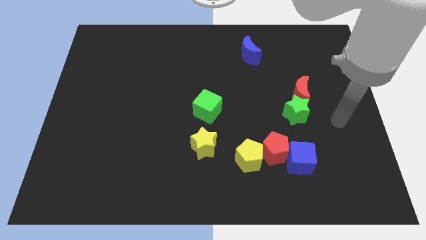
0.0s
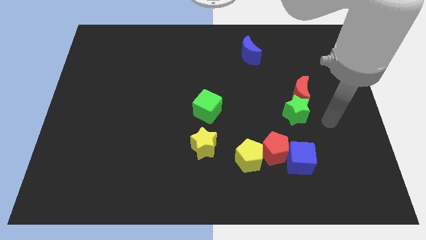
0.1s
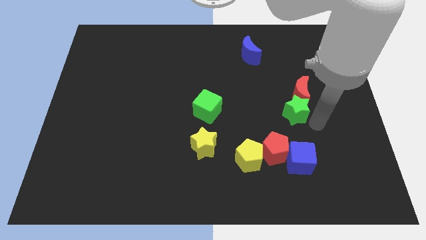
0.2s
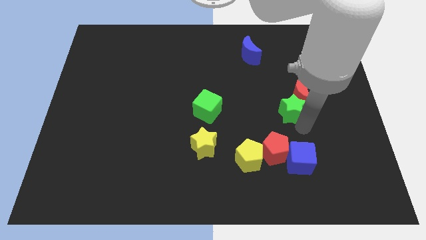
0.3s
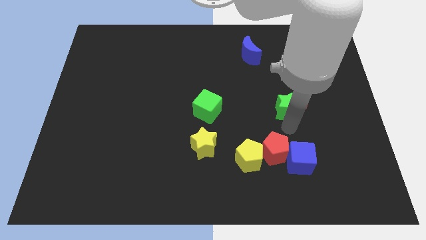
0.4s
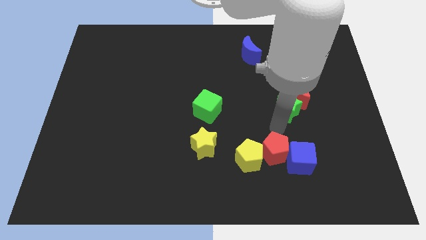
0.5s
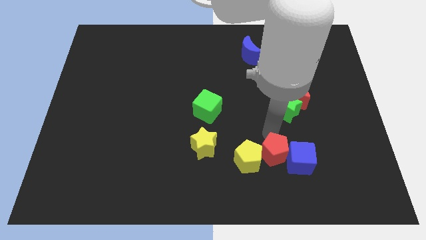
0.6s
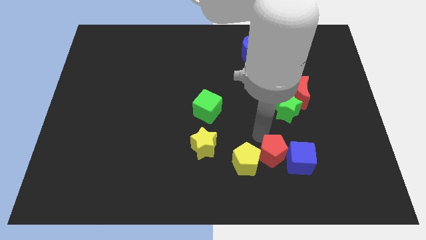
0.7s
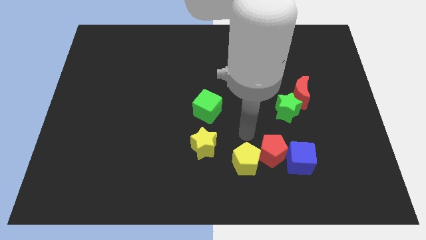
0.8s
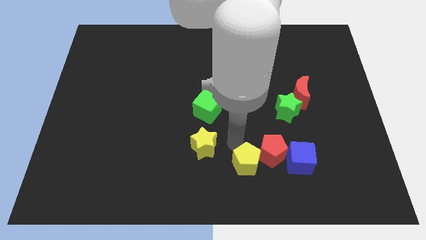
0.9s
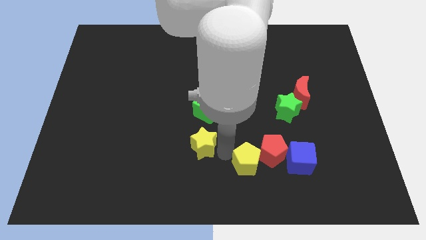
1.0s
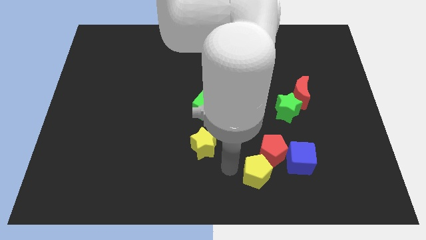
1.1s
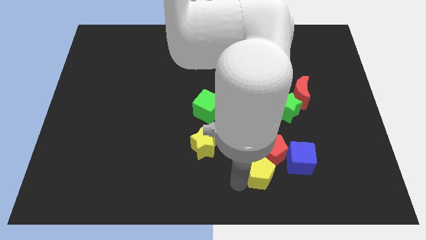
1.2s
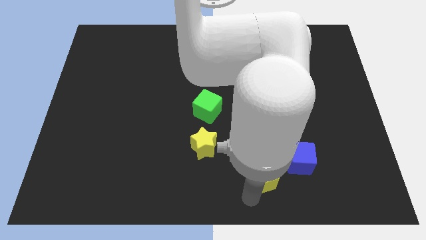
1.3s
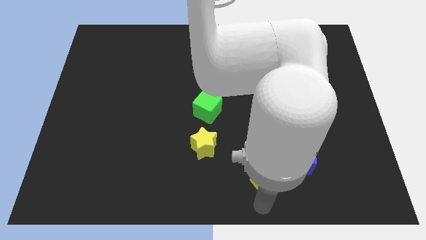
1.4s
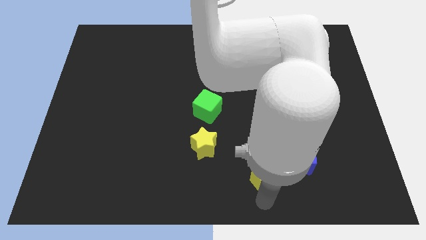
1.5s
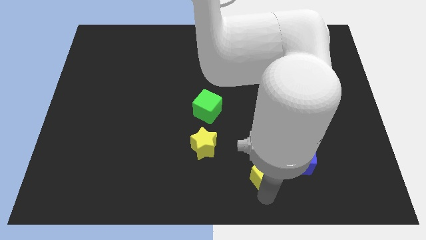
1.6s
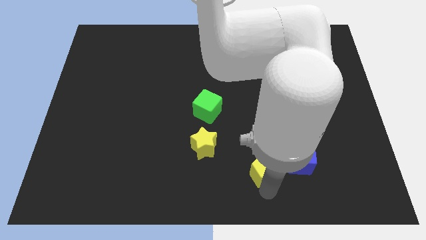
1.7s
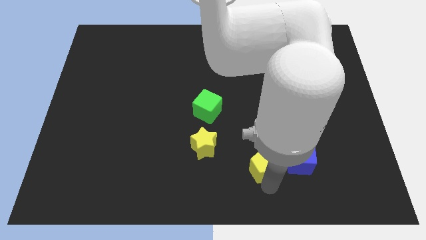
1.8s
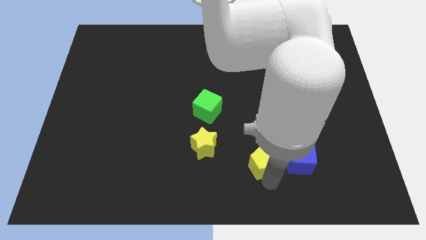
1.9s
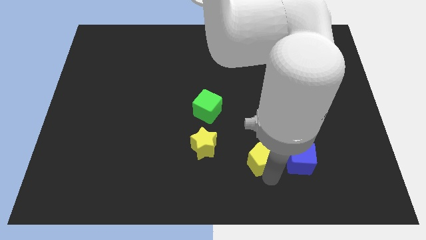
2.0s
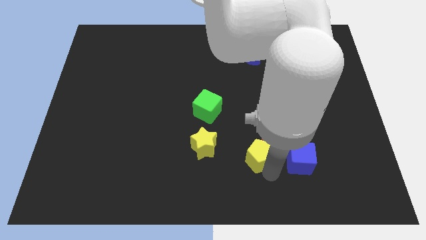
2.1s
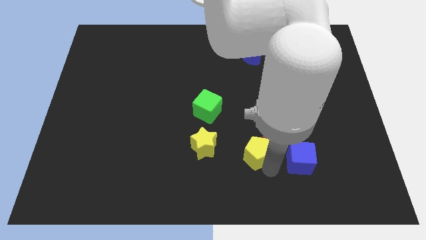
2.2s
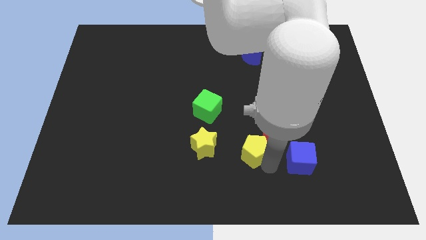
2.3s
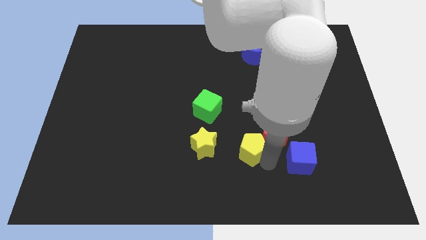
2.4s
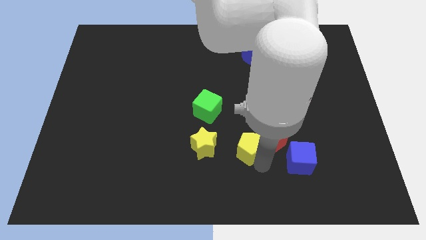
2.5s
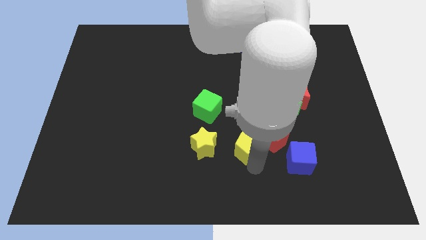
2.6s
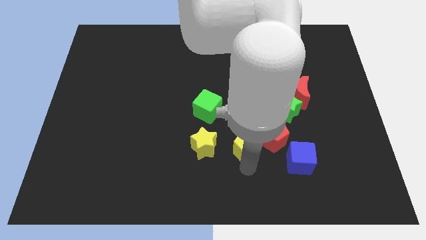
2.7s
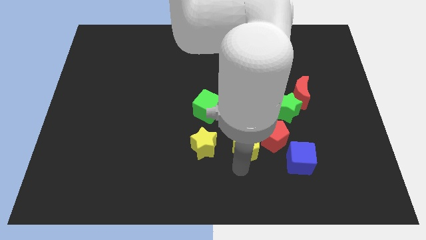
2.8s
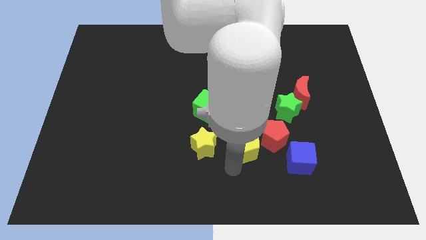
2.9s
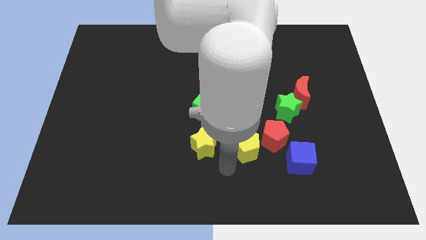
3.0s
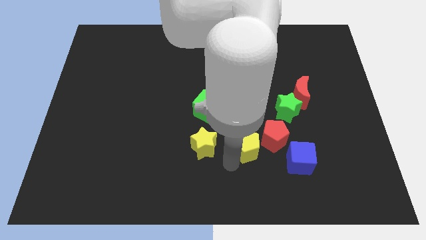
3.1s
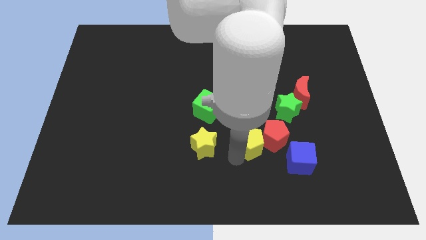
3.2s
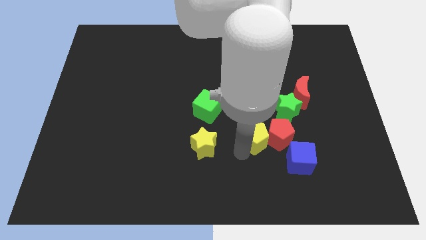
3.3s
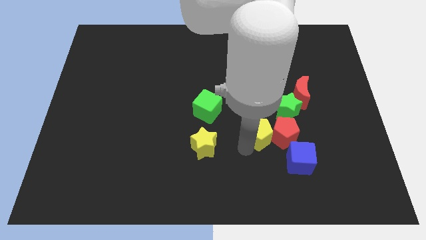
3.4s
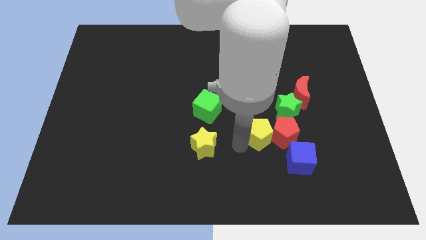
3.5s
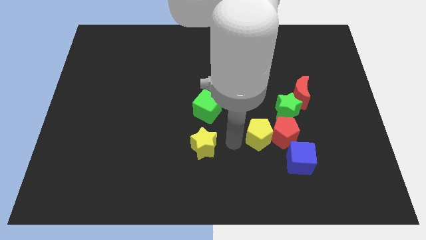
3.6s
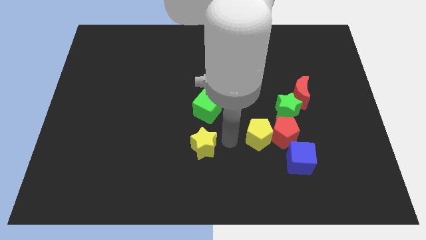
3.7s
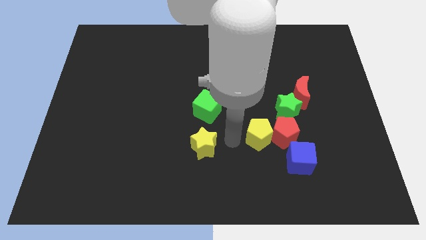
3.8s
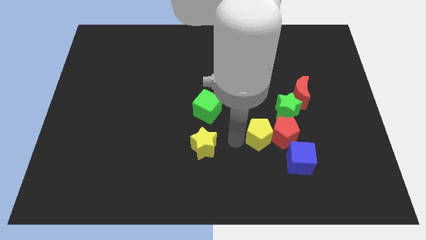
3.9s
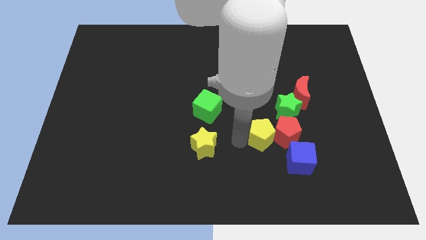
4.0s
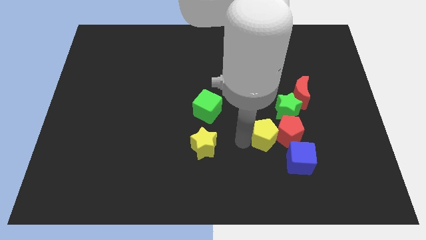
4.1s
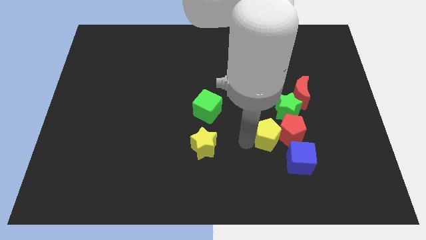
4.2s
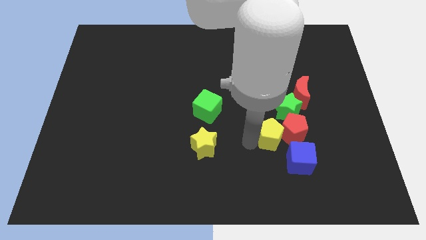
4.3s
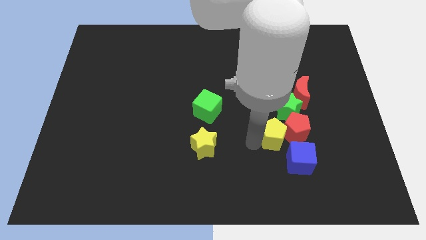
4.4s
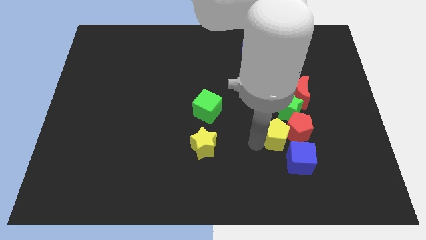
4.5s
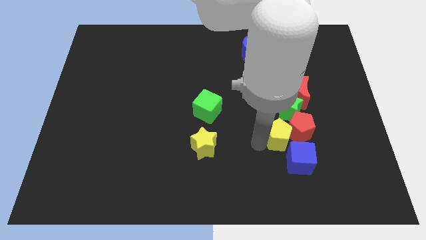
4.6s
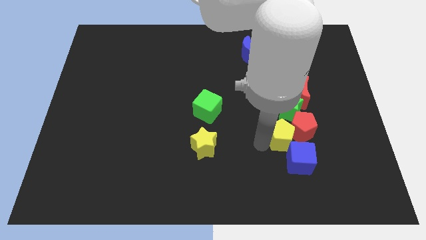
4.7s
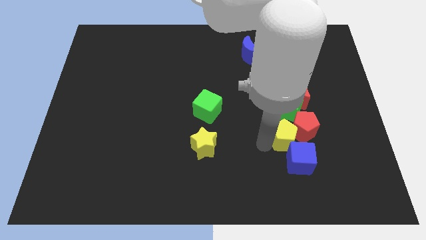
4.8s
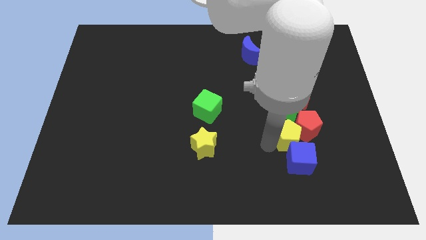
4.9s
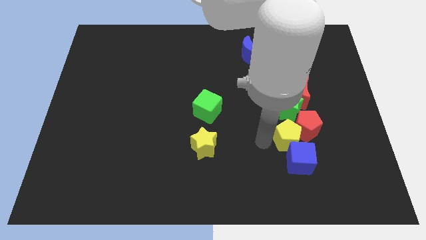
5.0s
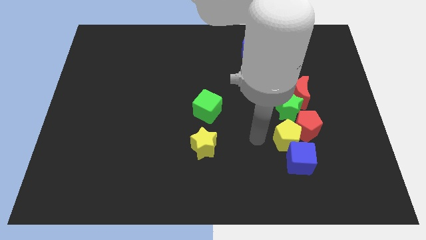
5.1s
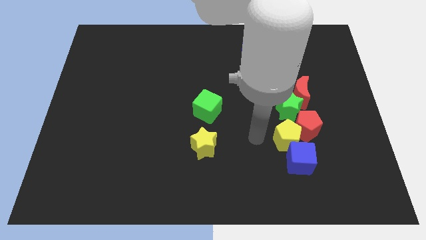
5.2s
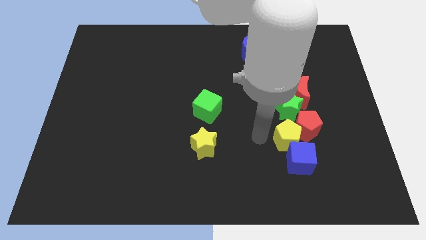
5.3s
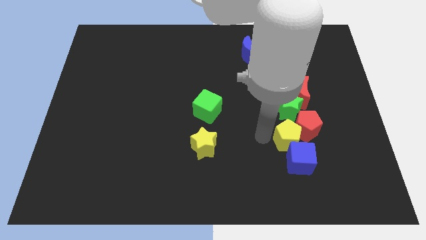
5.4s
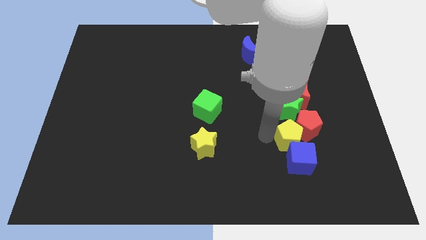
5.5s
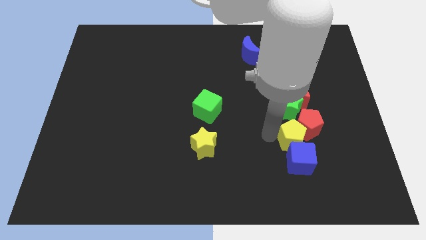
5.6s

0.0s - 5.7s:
push the yellow pentagon to the top right of the blue cube
